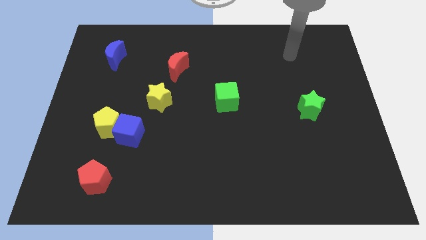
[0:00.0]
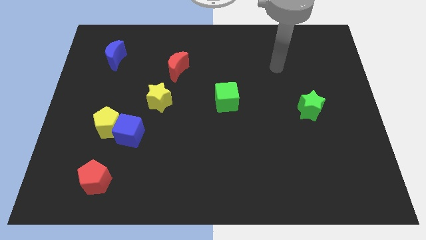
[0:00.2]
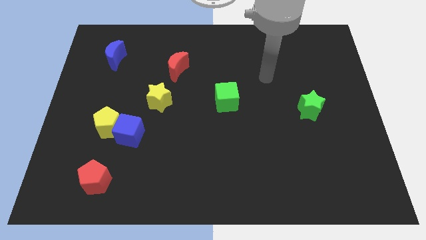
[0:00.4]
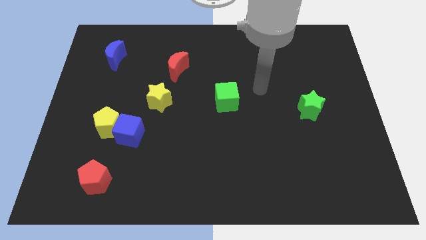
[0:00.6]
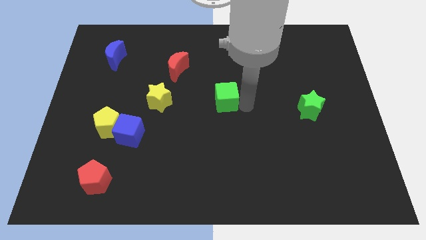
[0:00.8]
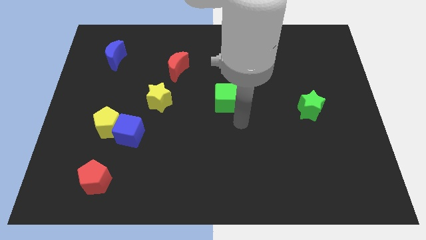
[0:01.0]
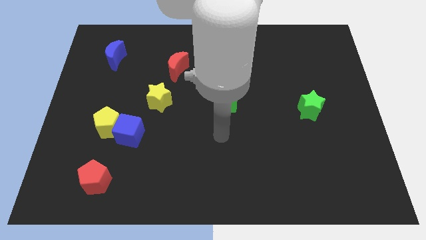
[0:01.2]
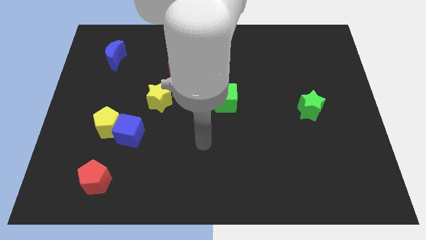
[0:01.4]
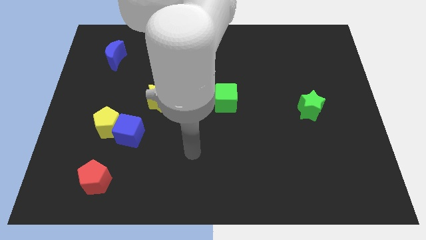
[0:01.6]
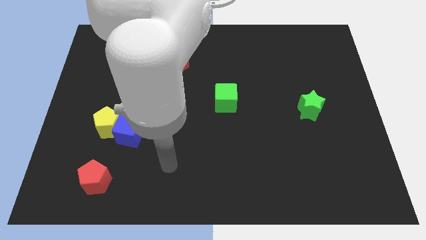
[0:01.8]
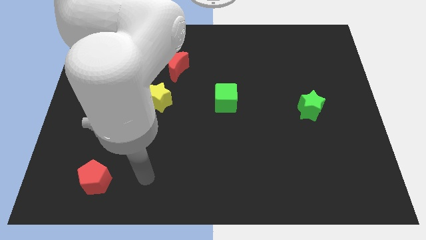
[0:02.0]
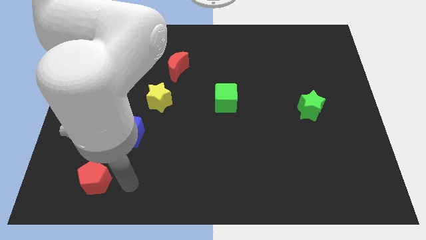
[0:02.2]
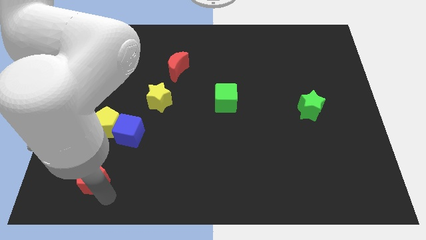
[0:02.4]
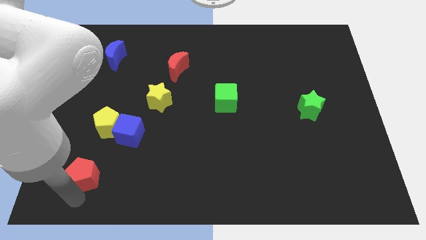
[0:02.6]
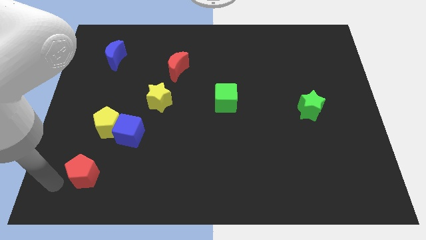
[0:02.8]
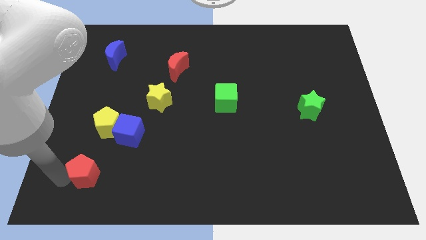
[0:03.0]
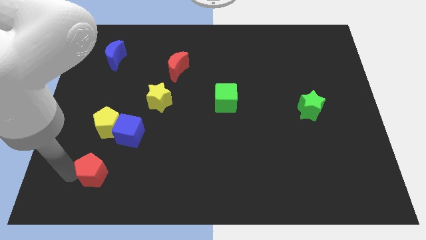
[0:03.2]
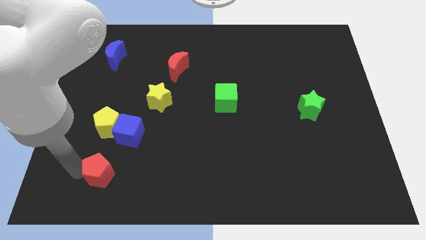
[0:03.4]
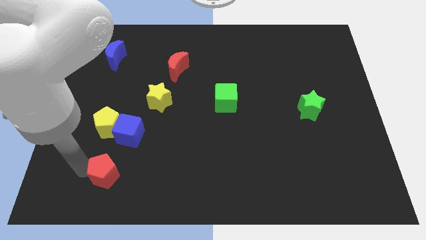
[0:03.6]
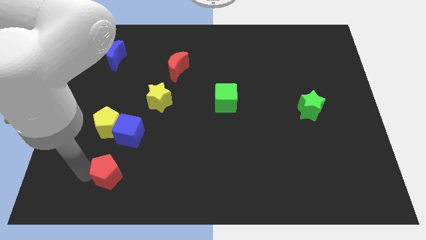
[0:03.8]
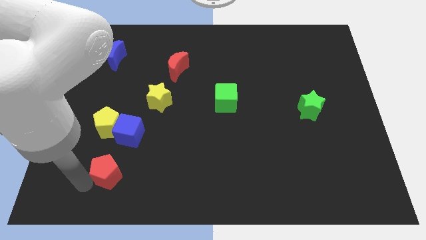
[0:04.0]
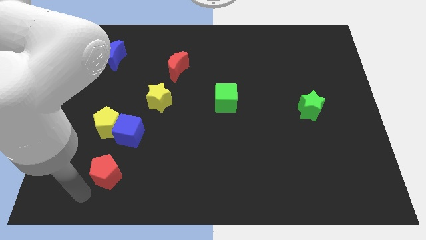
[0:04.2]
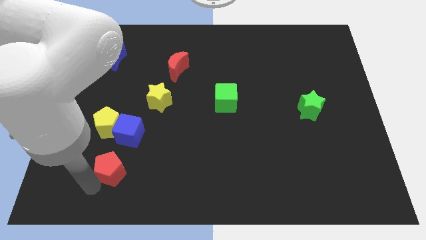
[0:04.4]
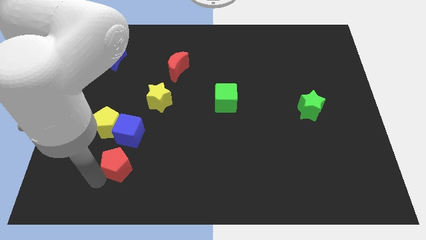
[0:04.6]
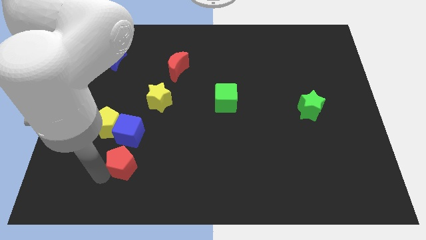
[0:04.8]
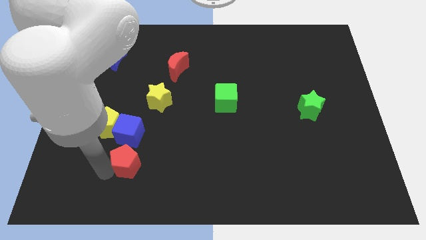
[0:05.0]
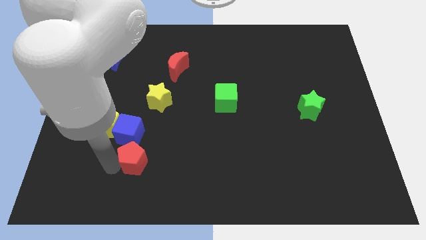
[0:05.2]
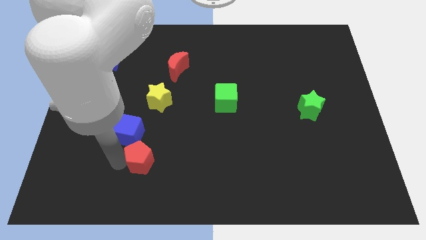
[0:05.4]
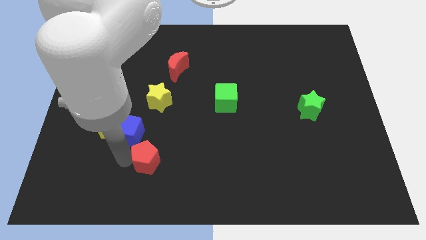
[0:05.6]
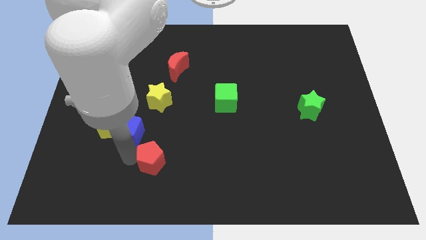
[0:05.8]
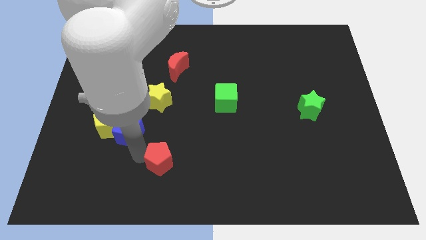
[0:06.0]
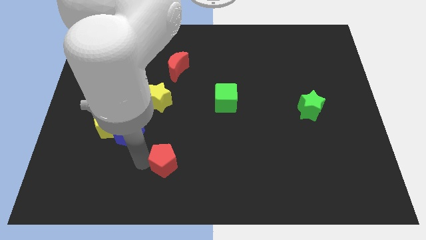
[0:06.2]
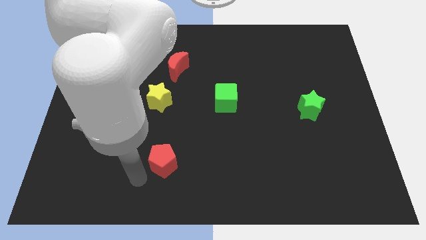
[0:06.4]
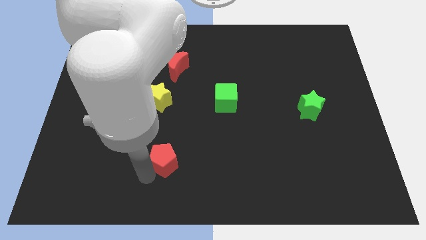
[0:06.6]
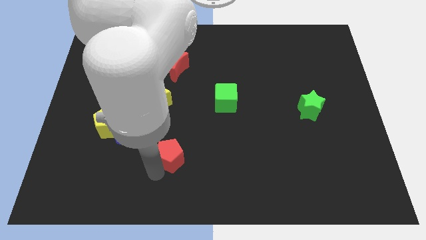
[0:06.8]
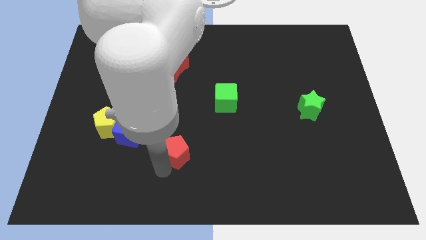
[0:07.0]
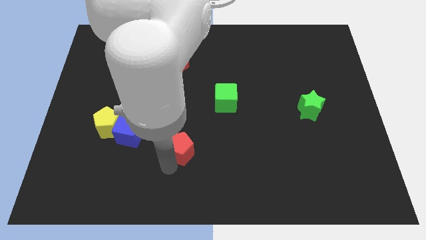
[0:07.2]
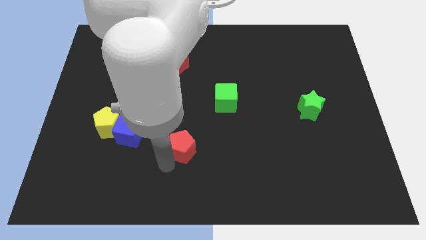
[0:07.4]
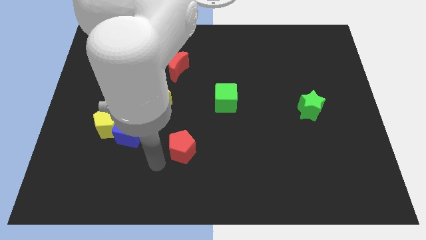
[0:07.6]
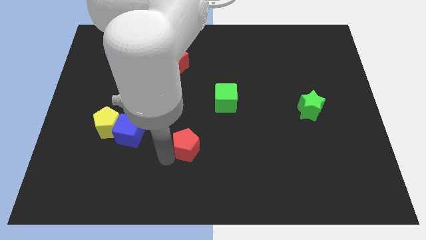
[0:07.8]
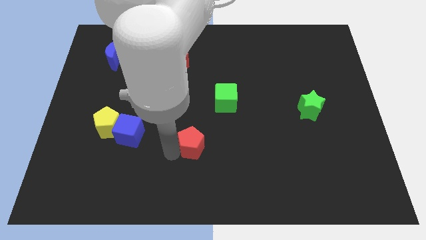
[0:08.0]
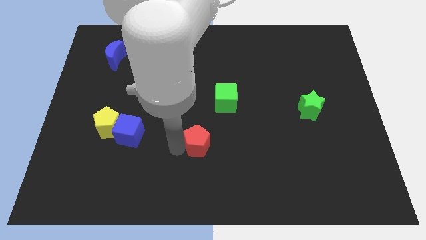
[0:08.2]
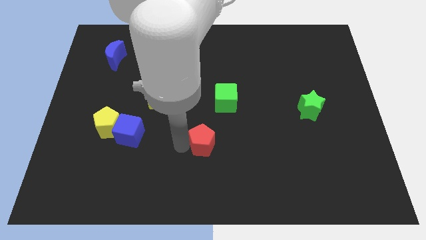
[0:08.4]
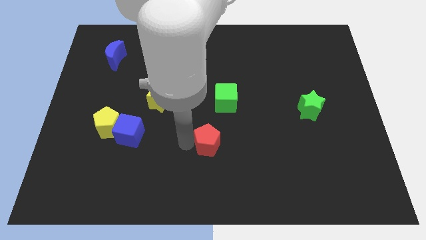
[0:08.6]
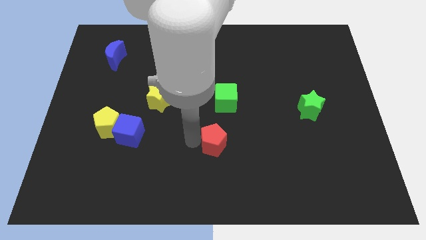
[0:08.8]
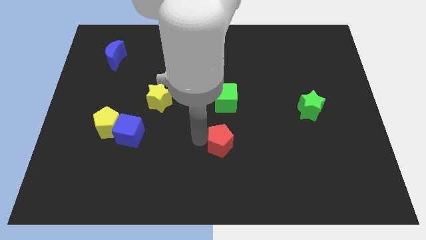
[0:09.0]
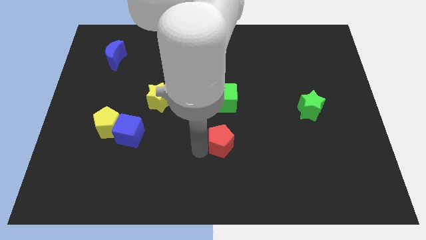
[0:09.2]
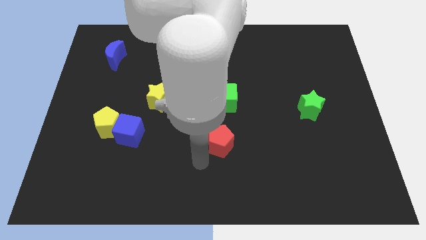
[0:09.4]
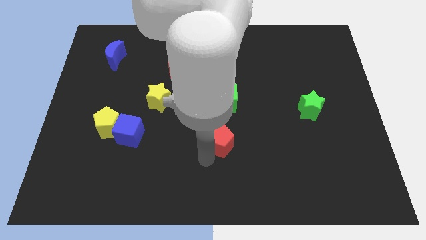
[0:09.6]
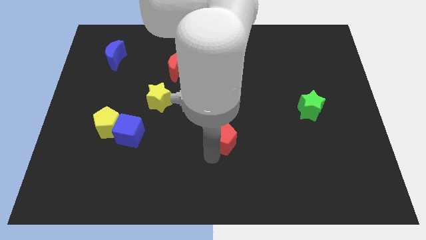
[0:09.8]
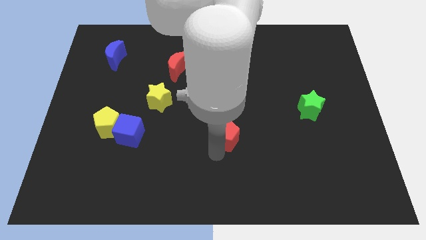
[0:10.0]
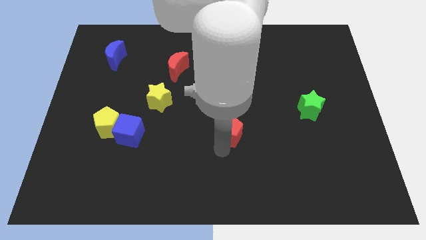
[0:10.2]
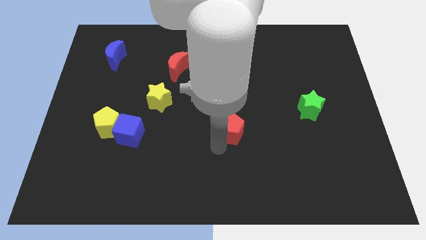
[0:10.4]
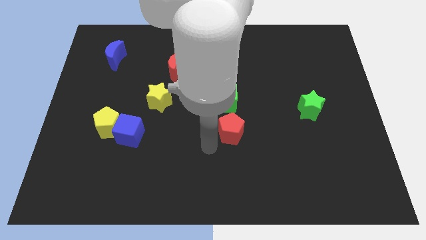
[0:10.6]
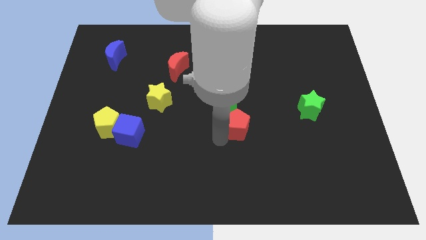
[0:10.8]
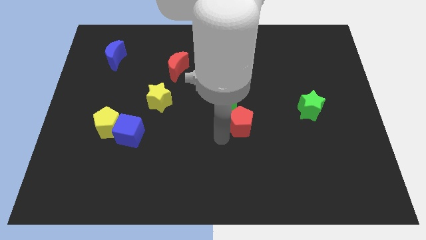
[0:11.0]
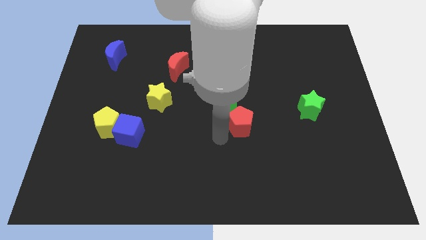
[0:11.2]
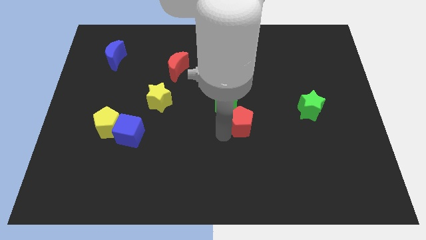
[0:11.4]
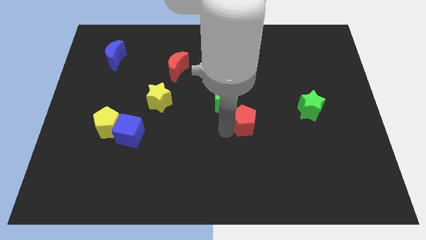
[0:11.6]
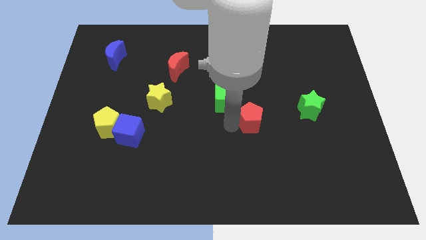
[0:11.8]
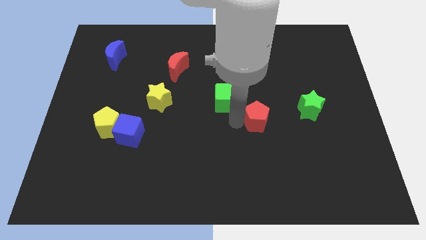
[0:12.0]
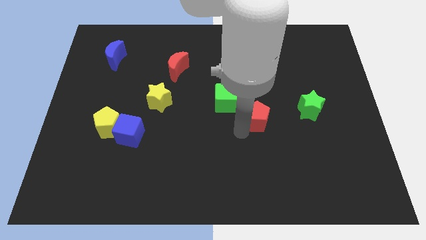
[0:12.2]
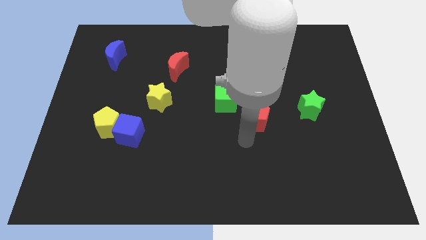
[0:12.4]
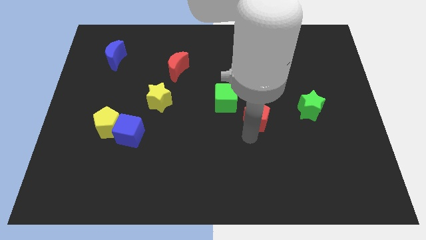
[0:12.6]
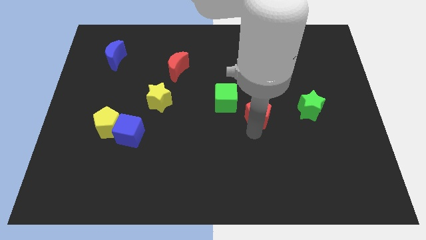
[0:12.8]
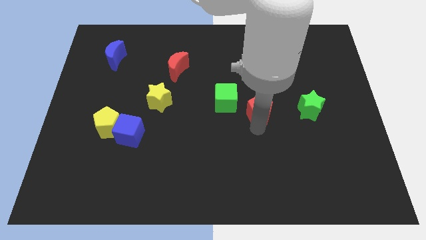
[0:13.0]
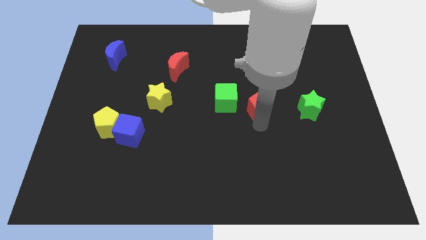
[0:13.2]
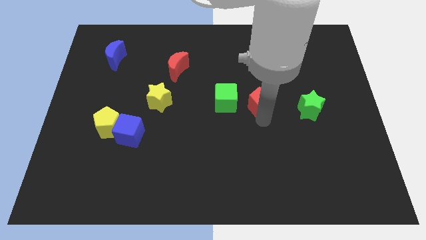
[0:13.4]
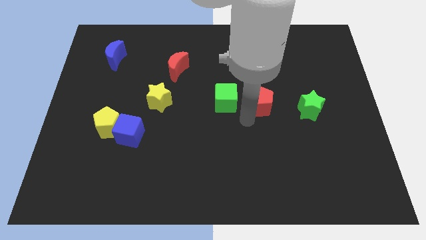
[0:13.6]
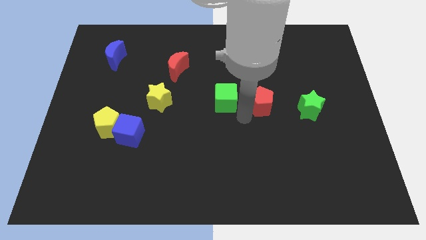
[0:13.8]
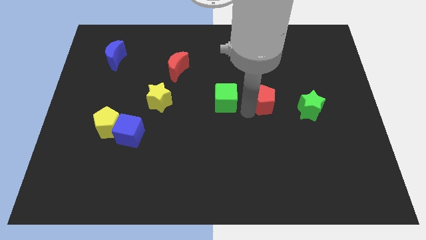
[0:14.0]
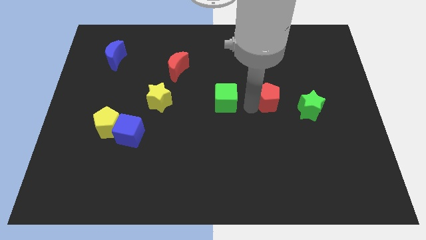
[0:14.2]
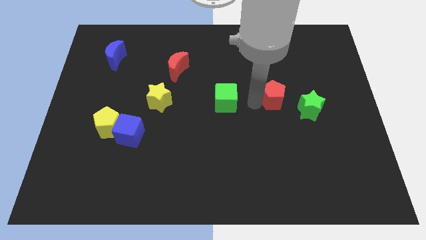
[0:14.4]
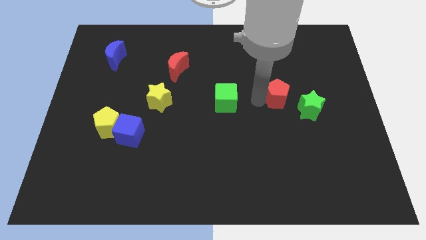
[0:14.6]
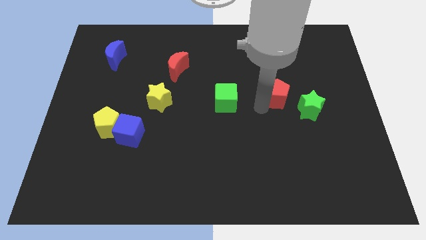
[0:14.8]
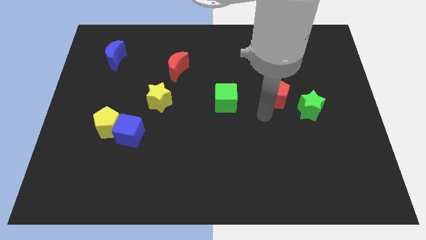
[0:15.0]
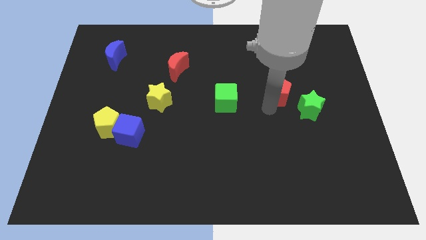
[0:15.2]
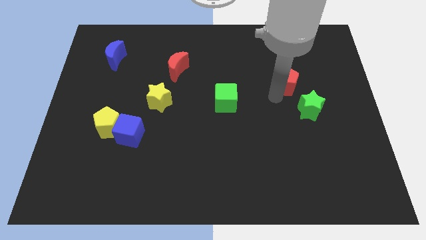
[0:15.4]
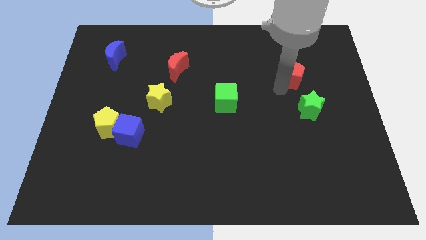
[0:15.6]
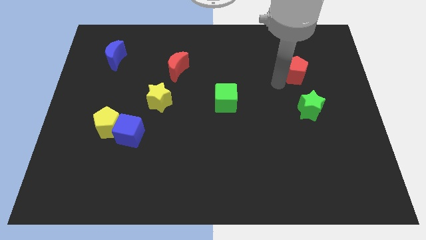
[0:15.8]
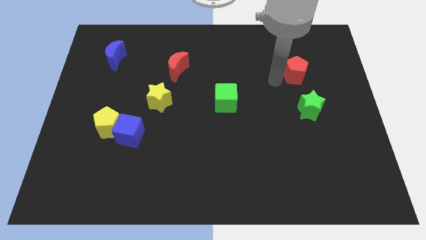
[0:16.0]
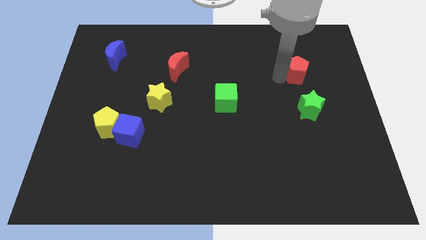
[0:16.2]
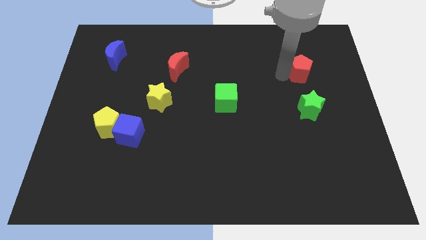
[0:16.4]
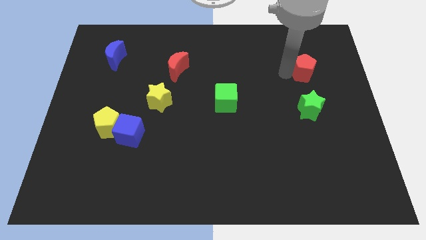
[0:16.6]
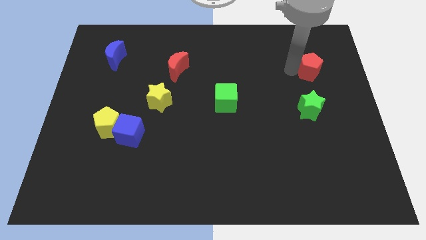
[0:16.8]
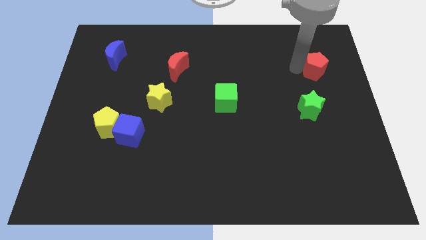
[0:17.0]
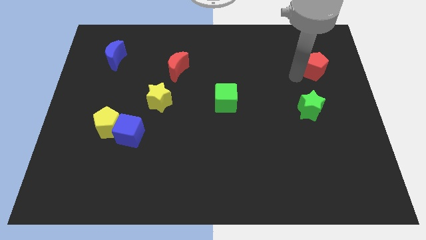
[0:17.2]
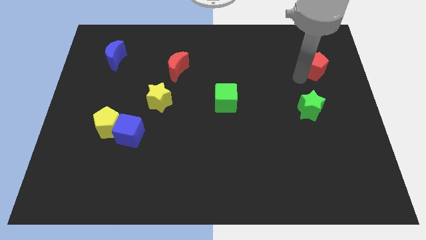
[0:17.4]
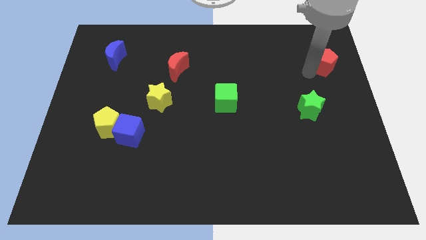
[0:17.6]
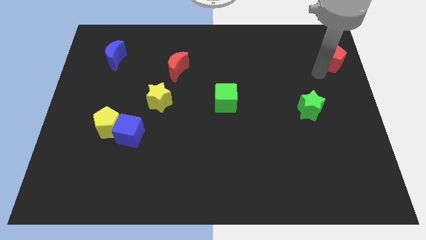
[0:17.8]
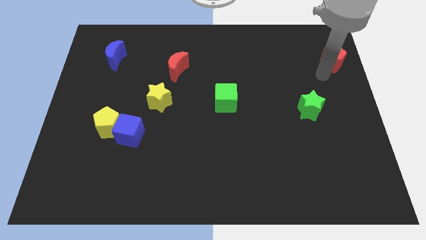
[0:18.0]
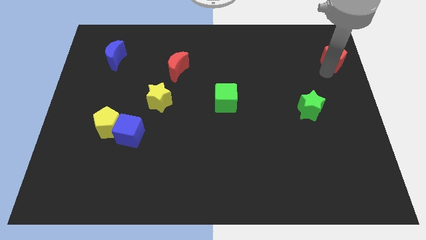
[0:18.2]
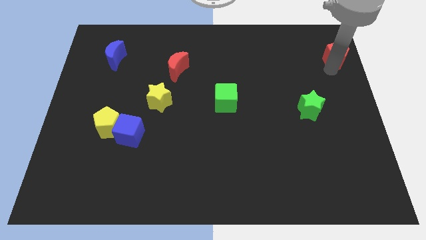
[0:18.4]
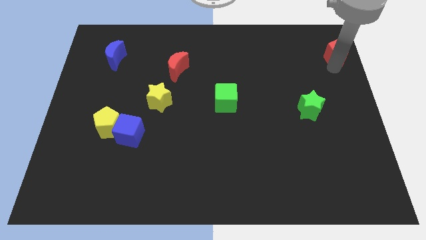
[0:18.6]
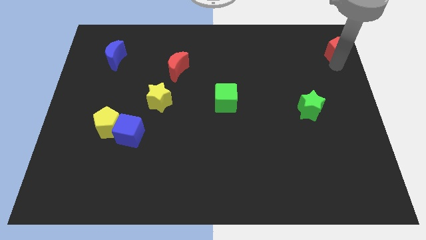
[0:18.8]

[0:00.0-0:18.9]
push the red pentagon to the upper right corner
